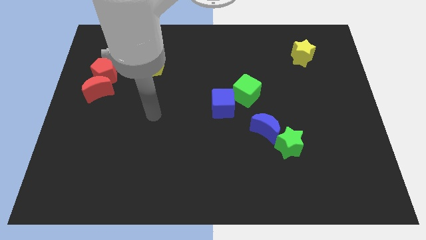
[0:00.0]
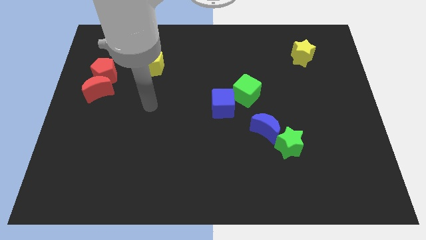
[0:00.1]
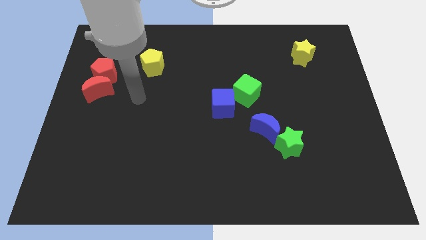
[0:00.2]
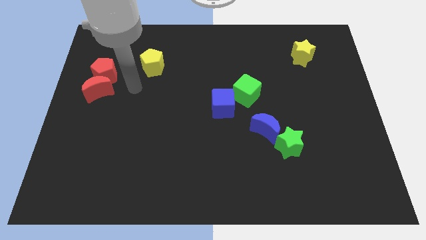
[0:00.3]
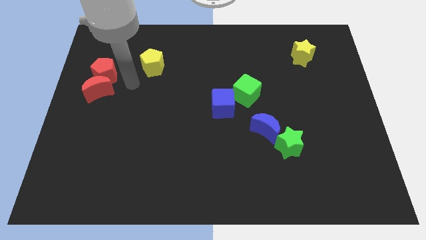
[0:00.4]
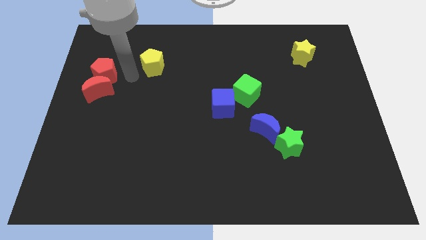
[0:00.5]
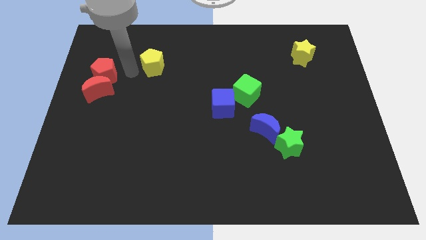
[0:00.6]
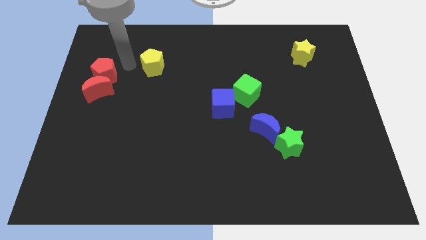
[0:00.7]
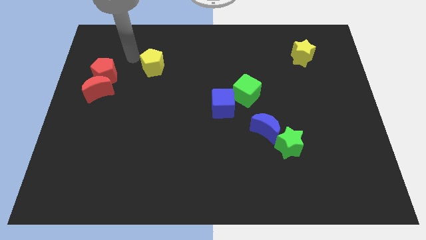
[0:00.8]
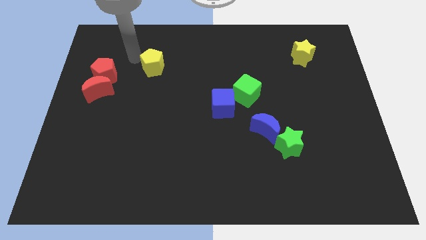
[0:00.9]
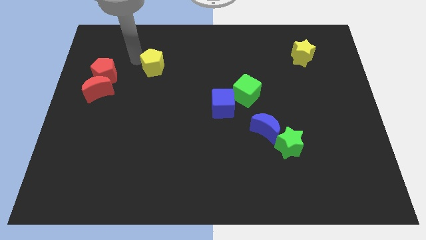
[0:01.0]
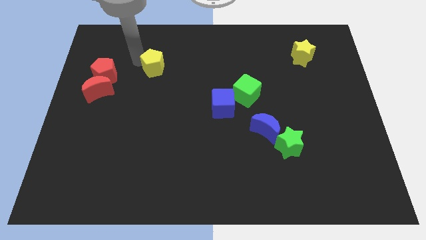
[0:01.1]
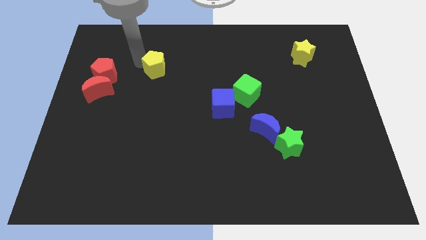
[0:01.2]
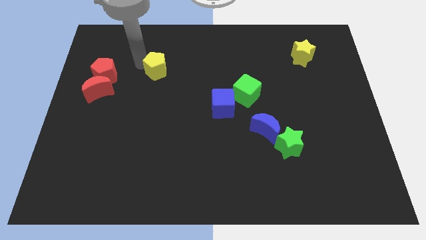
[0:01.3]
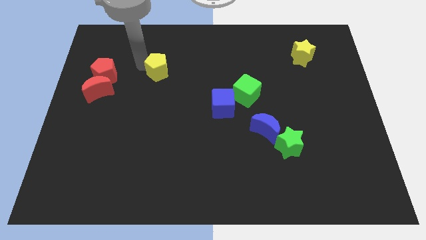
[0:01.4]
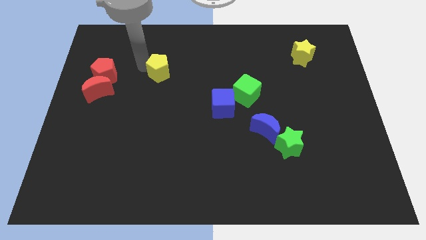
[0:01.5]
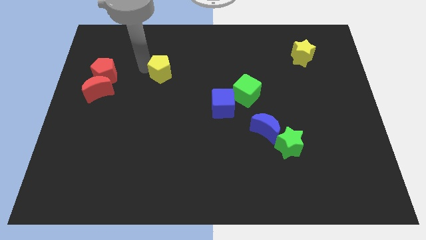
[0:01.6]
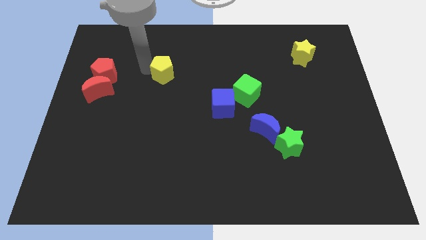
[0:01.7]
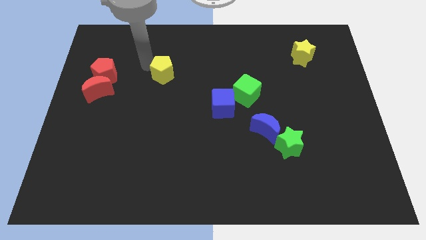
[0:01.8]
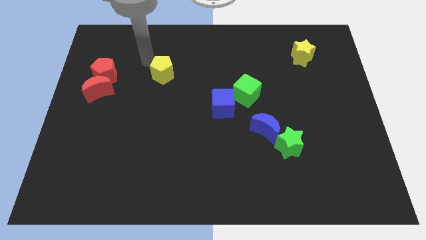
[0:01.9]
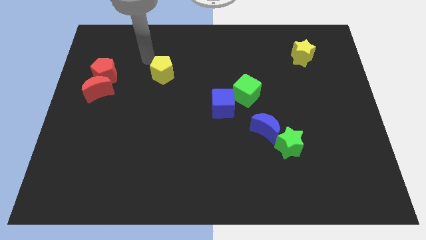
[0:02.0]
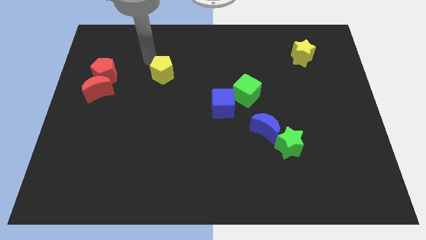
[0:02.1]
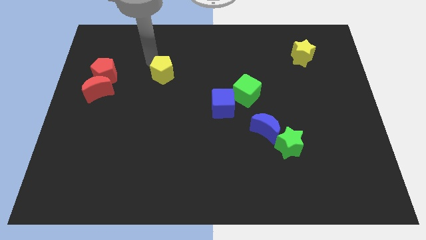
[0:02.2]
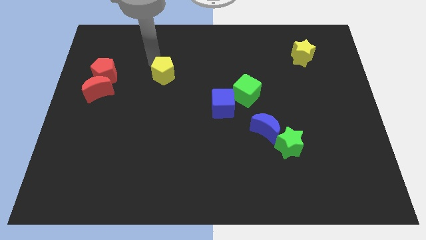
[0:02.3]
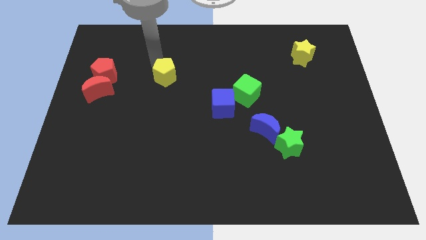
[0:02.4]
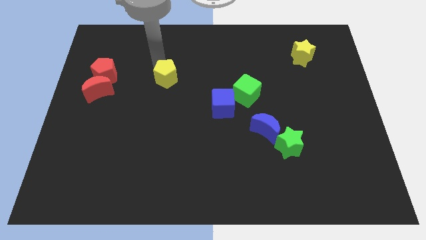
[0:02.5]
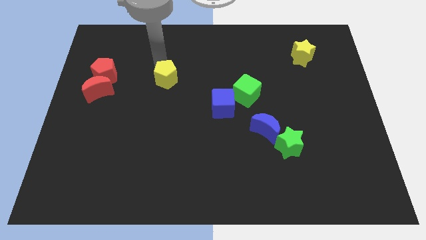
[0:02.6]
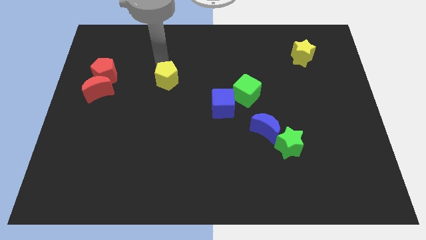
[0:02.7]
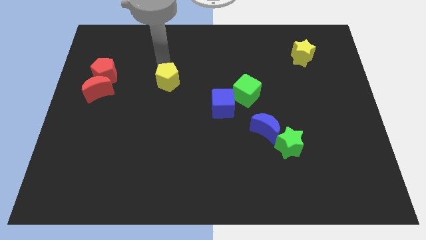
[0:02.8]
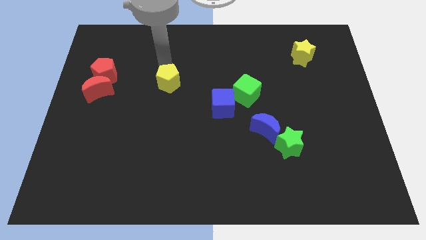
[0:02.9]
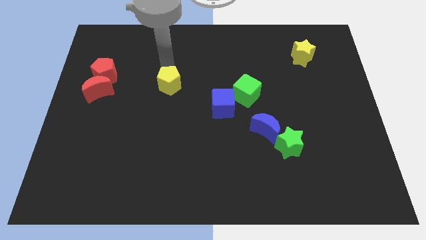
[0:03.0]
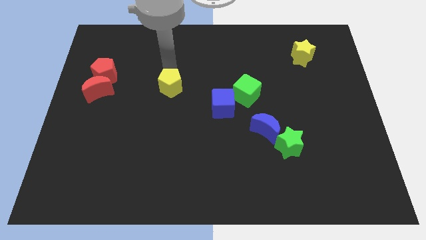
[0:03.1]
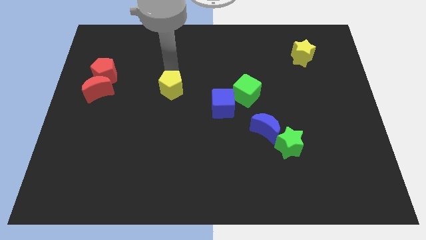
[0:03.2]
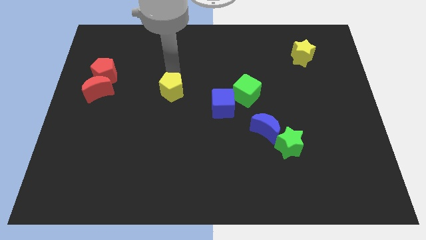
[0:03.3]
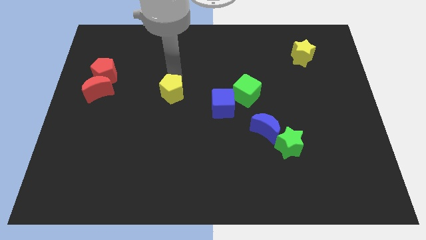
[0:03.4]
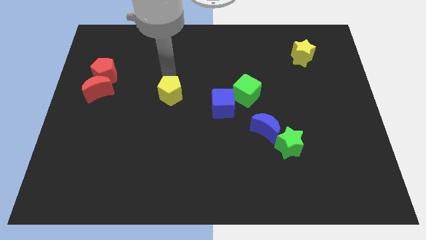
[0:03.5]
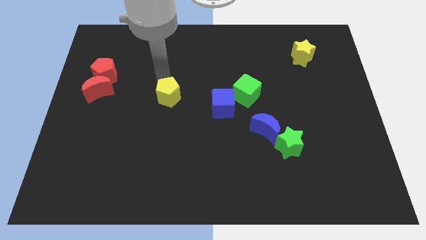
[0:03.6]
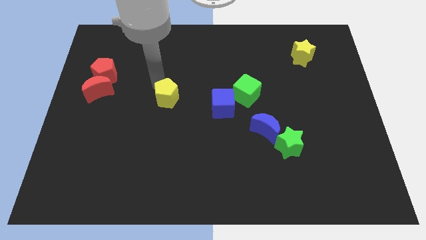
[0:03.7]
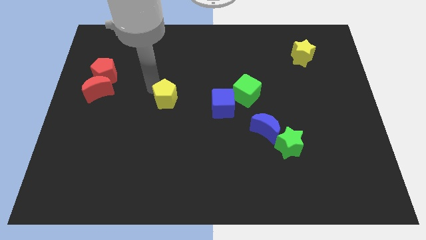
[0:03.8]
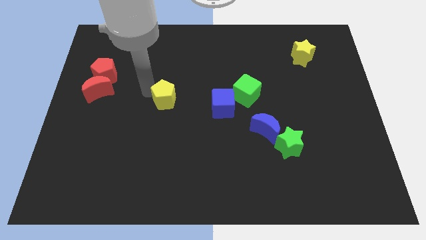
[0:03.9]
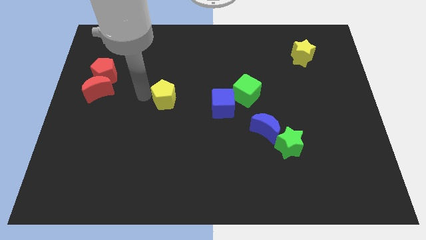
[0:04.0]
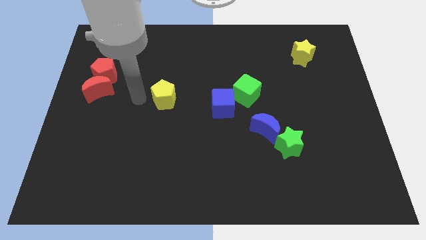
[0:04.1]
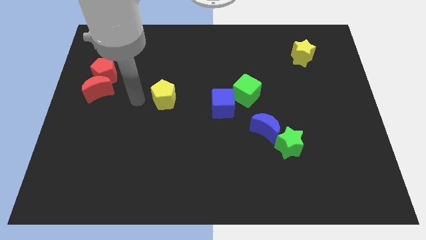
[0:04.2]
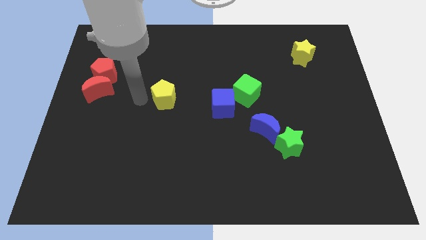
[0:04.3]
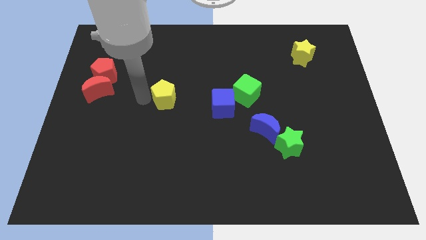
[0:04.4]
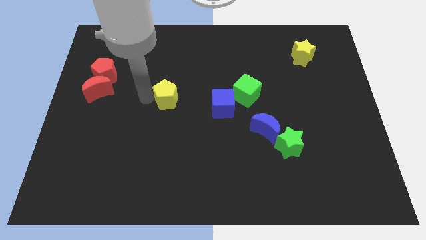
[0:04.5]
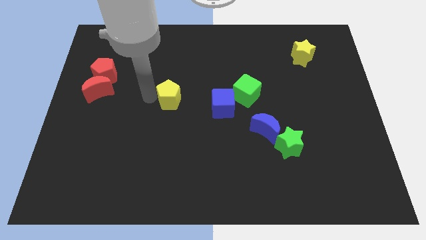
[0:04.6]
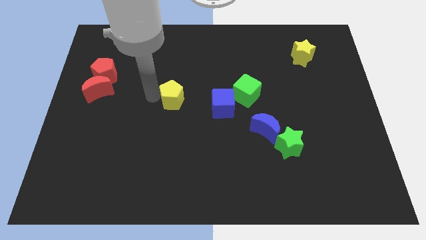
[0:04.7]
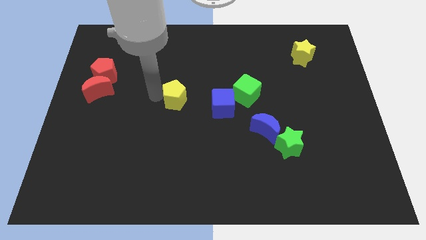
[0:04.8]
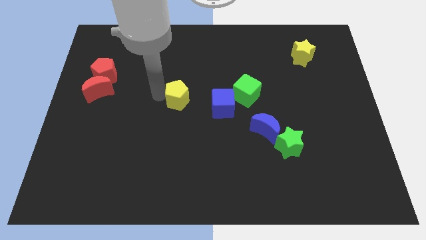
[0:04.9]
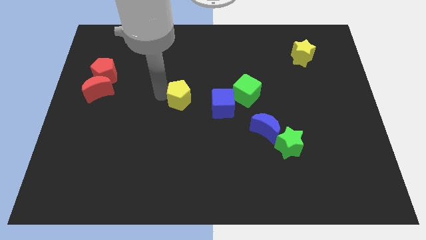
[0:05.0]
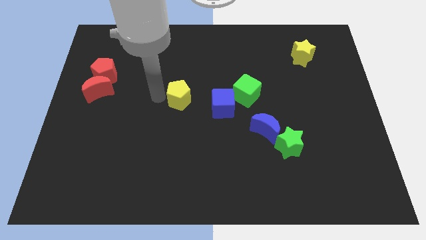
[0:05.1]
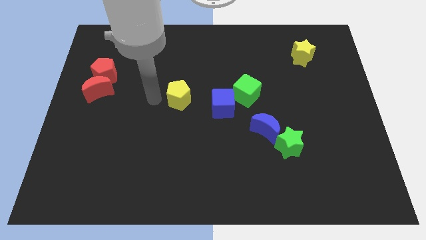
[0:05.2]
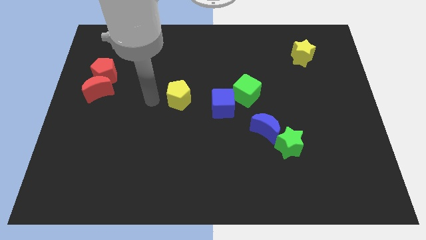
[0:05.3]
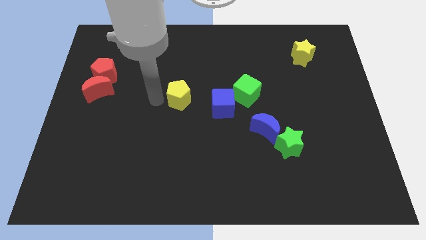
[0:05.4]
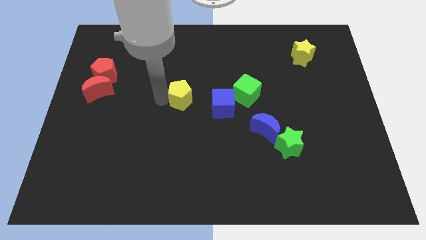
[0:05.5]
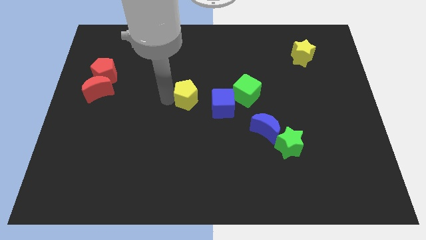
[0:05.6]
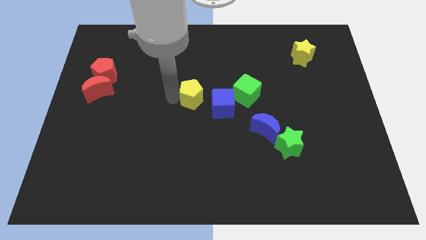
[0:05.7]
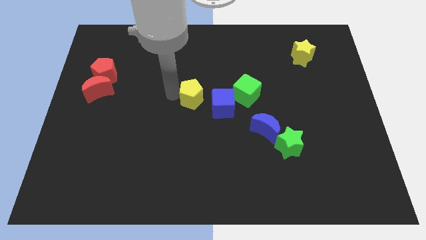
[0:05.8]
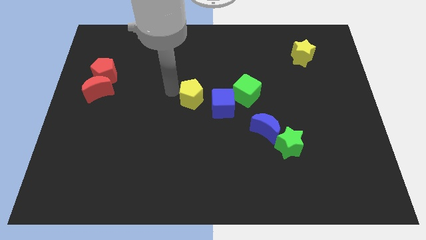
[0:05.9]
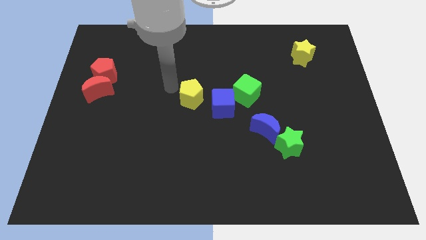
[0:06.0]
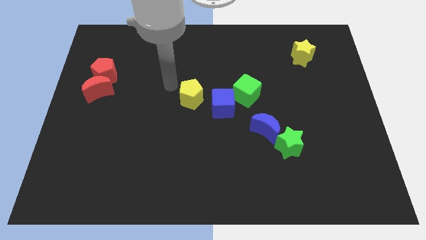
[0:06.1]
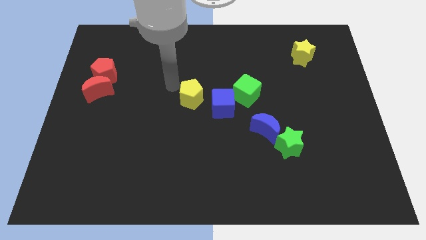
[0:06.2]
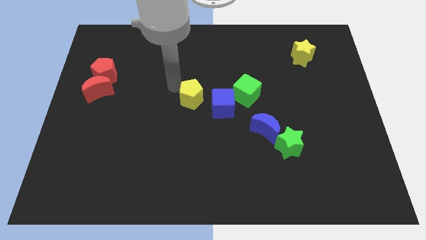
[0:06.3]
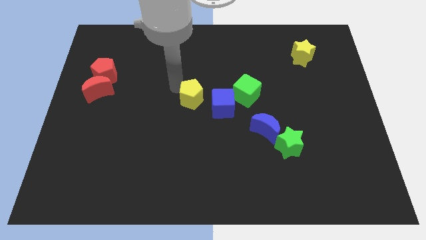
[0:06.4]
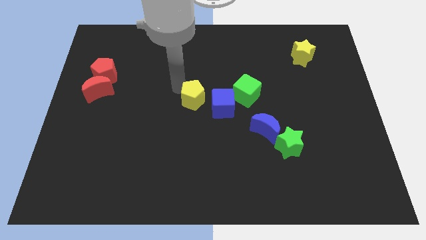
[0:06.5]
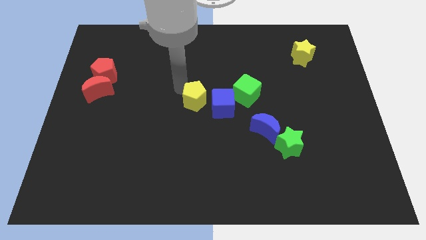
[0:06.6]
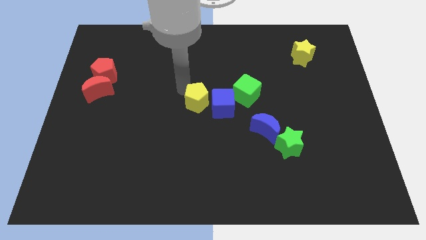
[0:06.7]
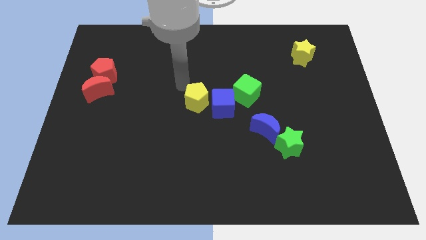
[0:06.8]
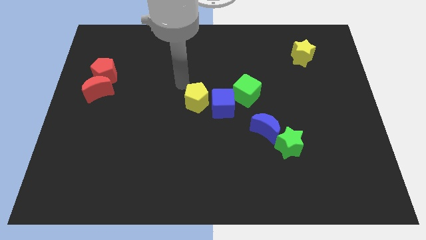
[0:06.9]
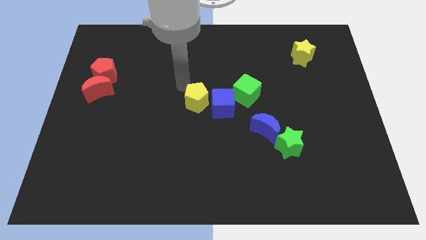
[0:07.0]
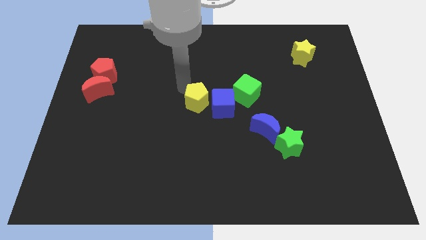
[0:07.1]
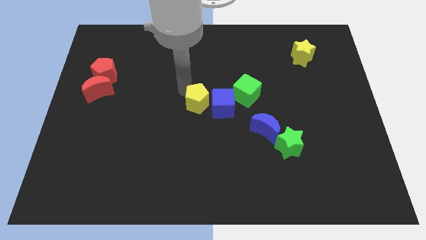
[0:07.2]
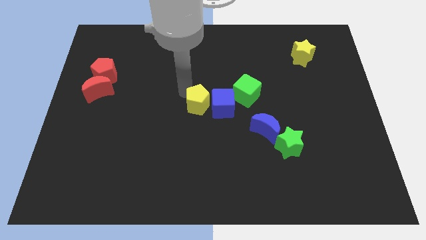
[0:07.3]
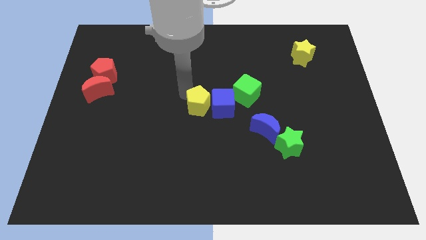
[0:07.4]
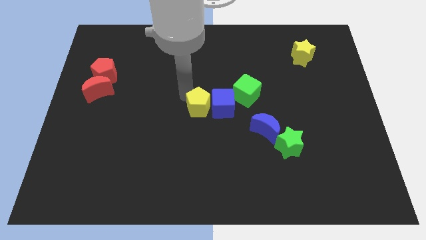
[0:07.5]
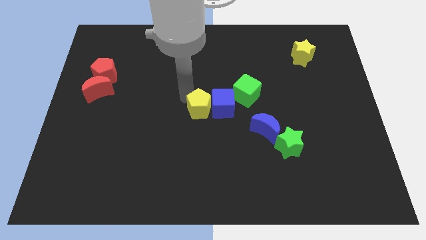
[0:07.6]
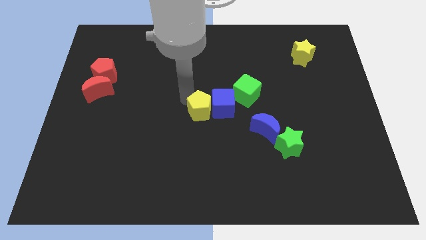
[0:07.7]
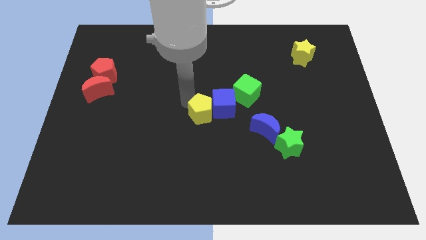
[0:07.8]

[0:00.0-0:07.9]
push the yellow pentagon diagonally downwards and right

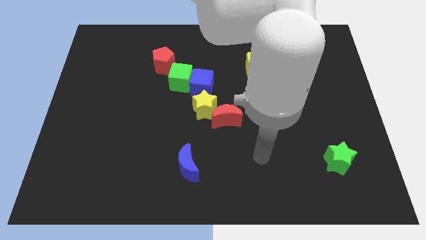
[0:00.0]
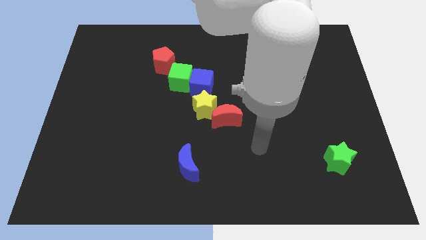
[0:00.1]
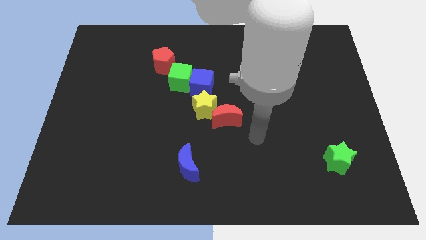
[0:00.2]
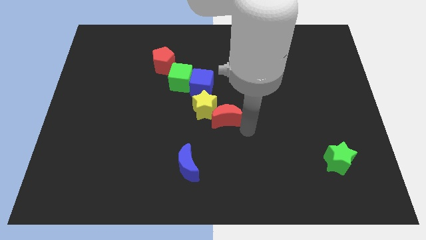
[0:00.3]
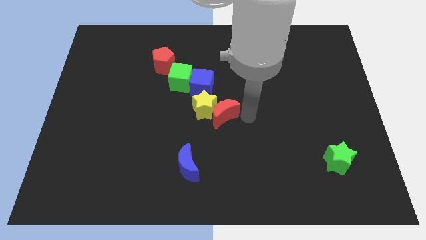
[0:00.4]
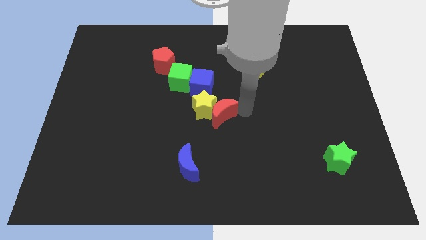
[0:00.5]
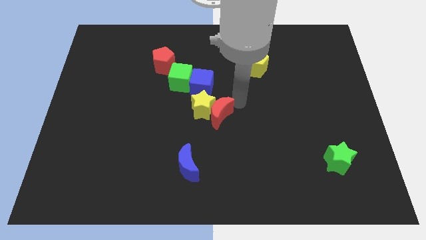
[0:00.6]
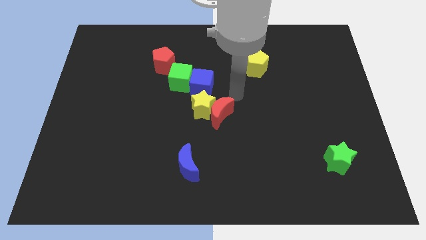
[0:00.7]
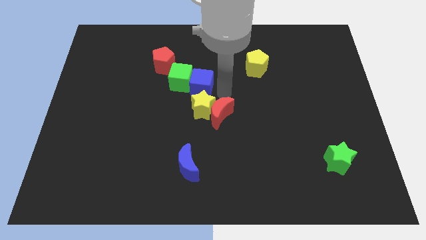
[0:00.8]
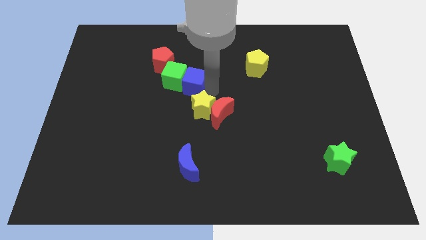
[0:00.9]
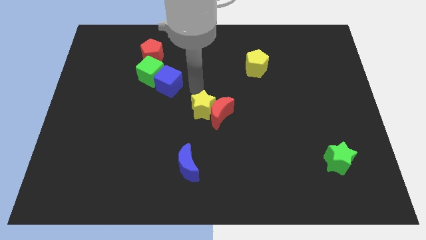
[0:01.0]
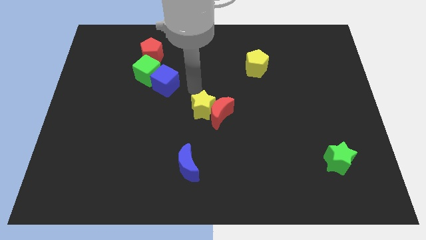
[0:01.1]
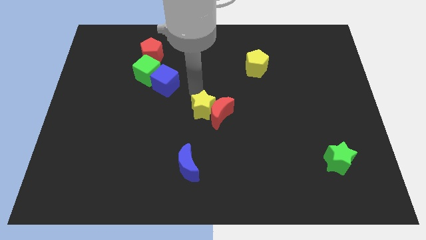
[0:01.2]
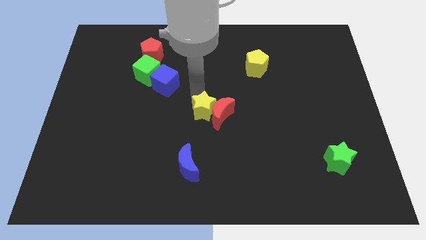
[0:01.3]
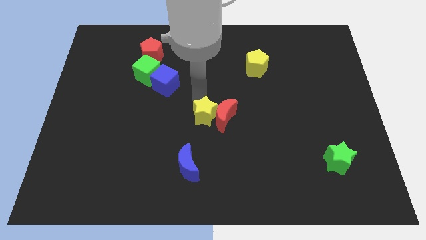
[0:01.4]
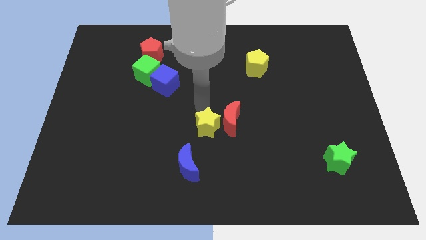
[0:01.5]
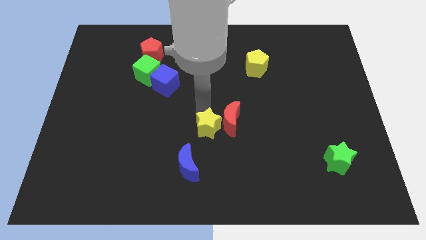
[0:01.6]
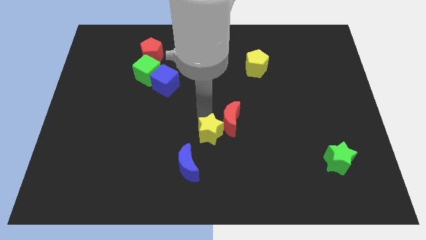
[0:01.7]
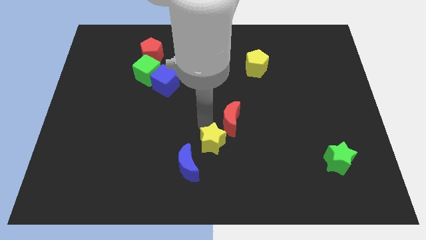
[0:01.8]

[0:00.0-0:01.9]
slightly push the yellow star down and then to the right
